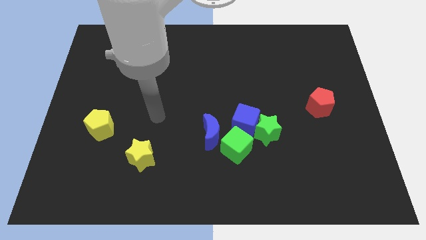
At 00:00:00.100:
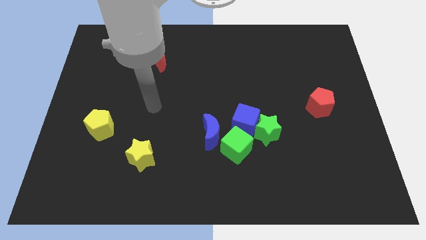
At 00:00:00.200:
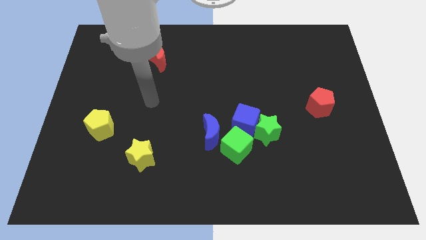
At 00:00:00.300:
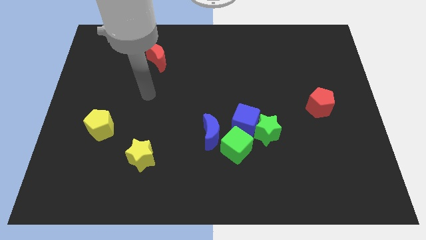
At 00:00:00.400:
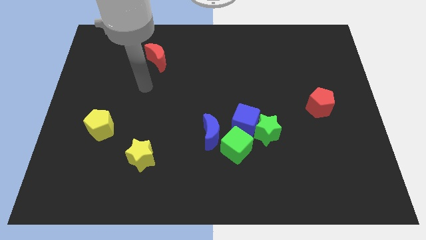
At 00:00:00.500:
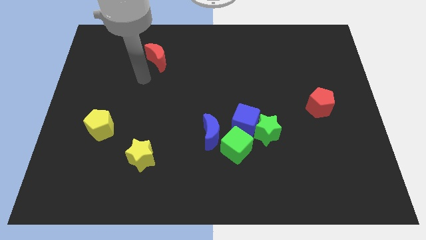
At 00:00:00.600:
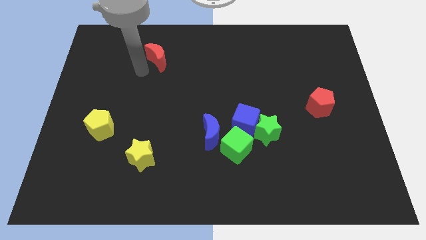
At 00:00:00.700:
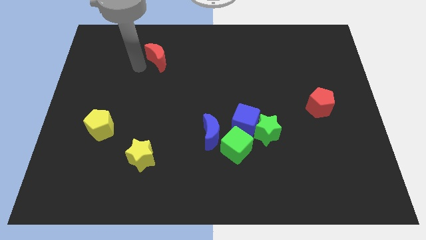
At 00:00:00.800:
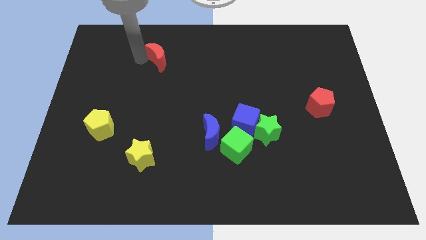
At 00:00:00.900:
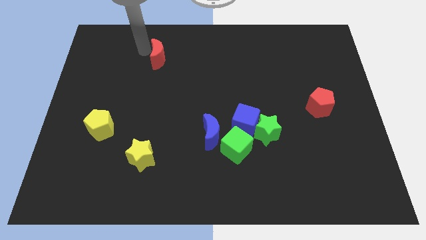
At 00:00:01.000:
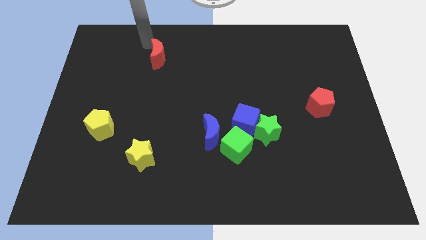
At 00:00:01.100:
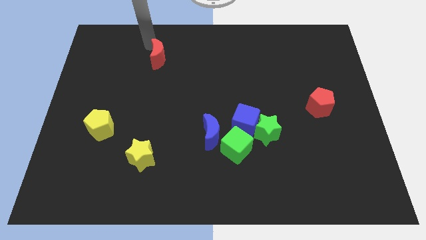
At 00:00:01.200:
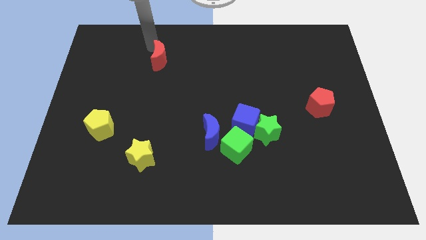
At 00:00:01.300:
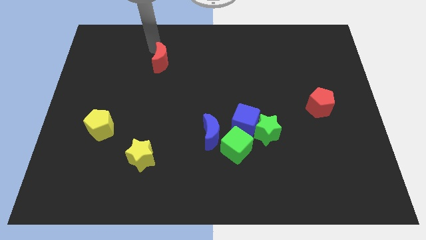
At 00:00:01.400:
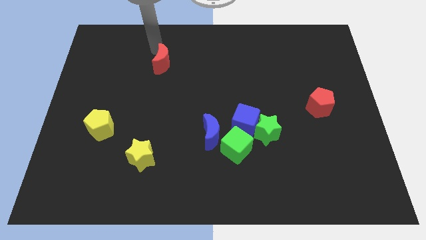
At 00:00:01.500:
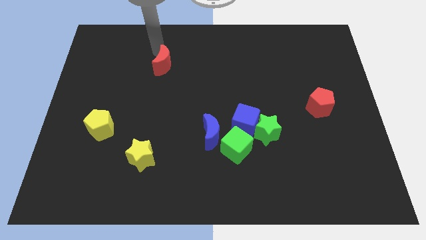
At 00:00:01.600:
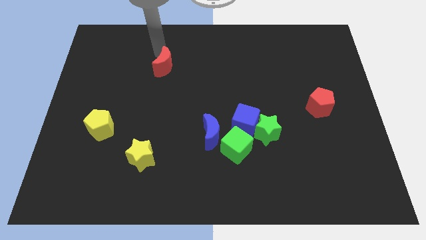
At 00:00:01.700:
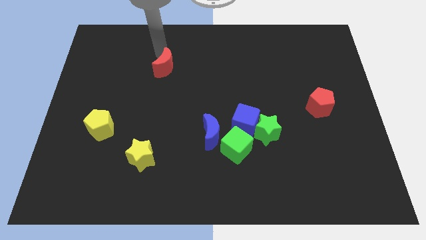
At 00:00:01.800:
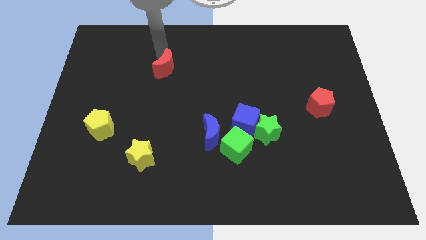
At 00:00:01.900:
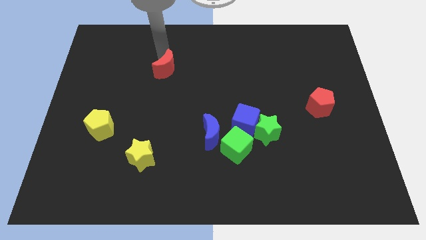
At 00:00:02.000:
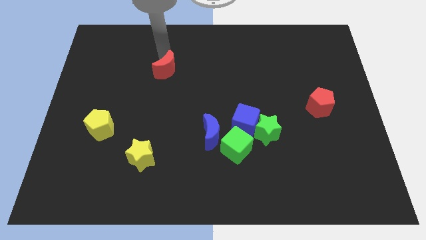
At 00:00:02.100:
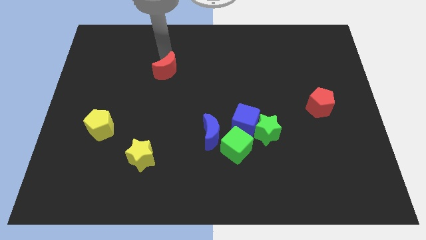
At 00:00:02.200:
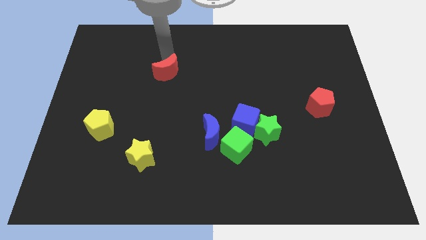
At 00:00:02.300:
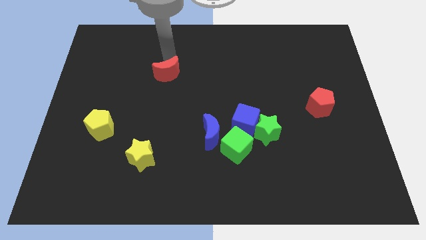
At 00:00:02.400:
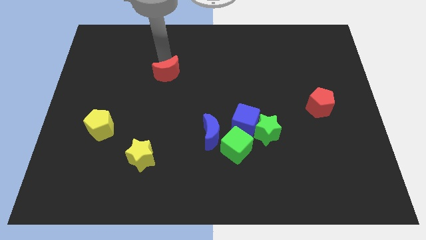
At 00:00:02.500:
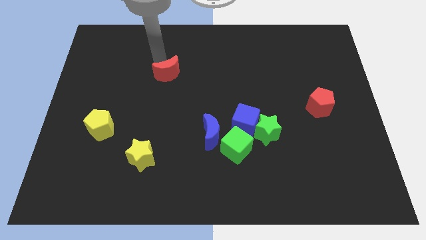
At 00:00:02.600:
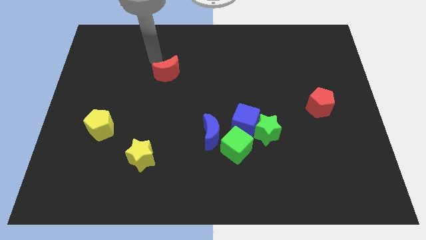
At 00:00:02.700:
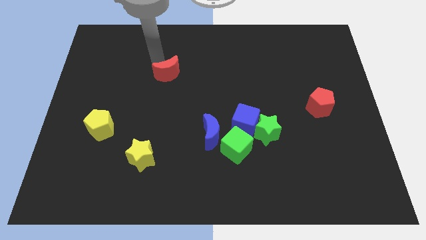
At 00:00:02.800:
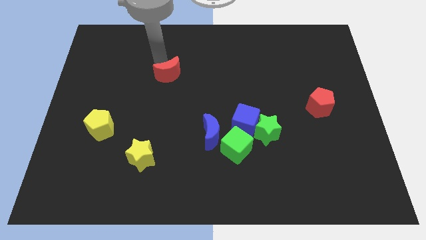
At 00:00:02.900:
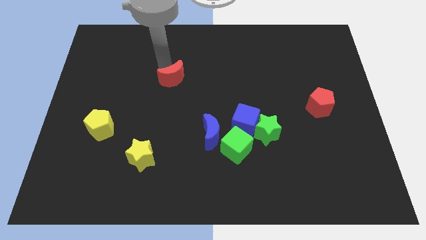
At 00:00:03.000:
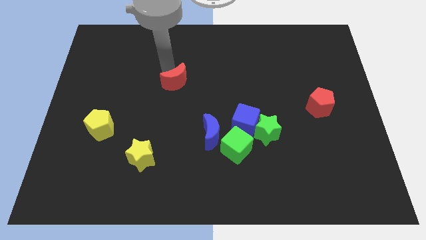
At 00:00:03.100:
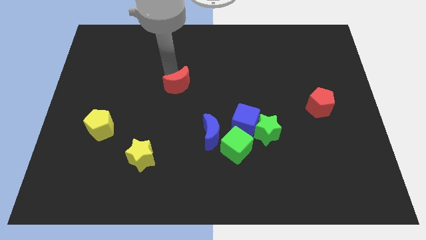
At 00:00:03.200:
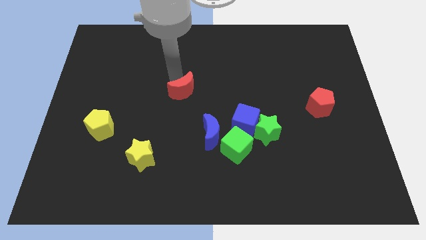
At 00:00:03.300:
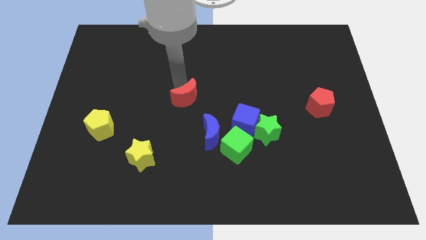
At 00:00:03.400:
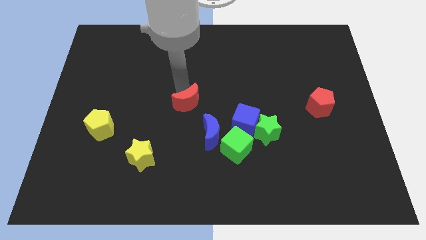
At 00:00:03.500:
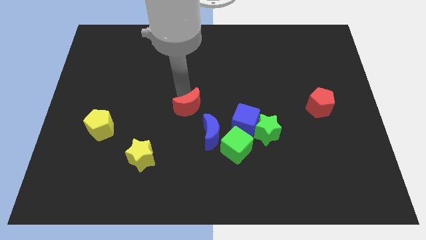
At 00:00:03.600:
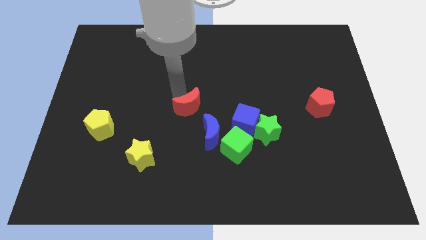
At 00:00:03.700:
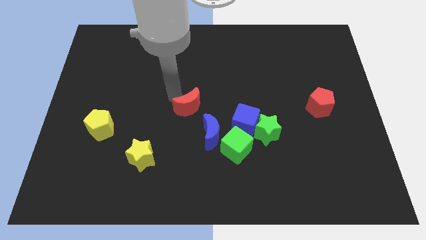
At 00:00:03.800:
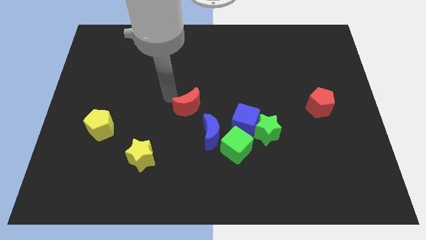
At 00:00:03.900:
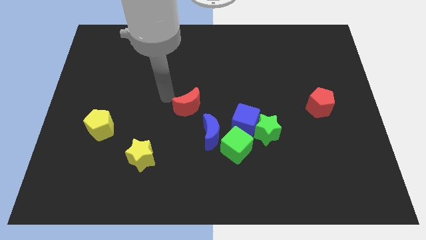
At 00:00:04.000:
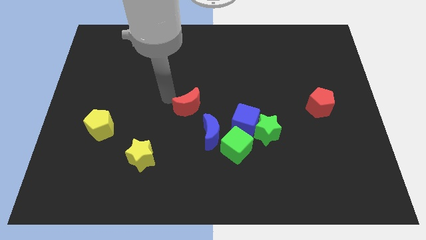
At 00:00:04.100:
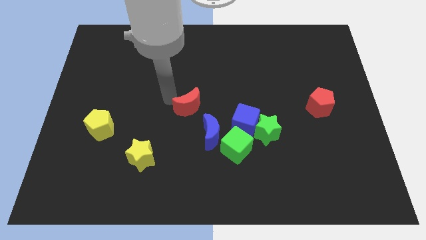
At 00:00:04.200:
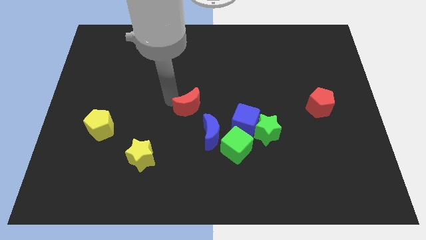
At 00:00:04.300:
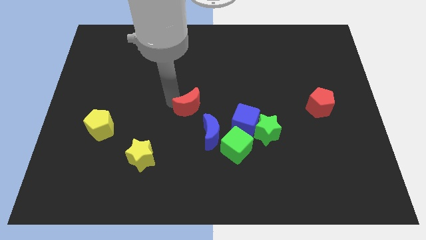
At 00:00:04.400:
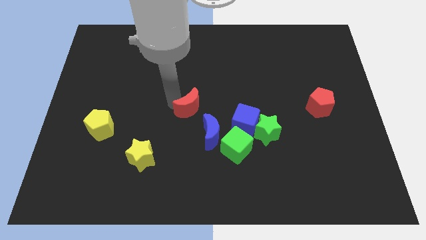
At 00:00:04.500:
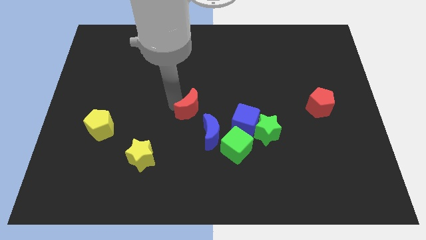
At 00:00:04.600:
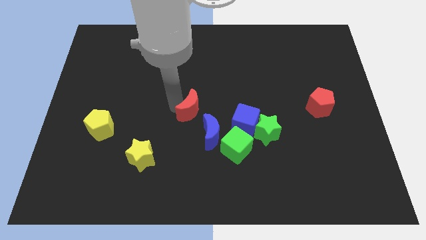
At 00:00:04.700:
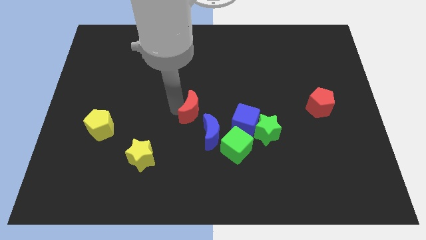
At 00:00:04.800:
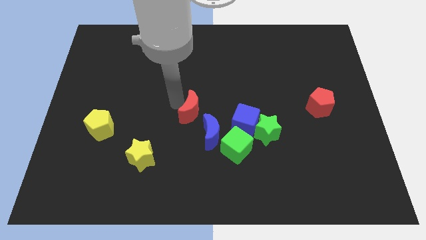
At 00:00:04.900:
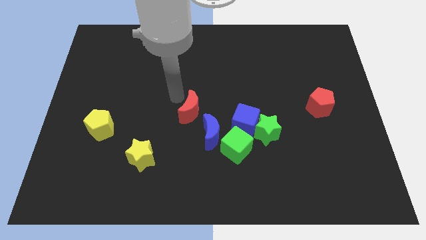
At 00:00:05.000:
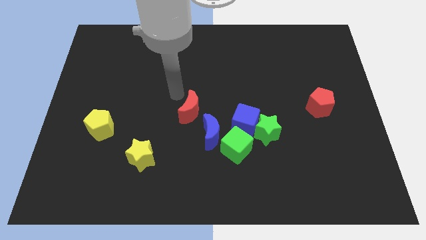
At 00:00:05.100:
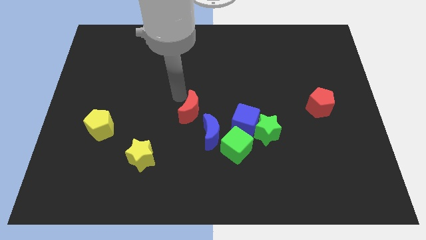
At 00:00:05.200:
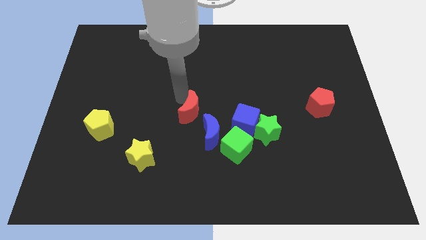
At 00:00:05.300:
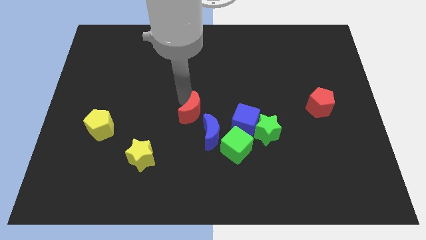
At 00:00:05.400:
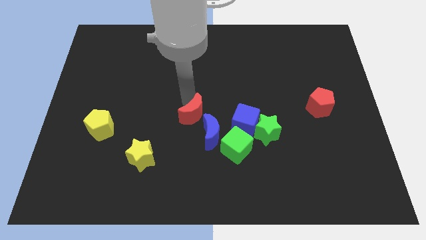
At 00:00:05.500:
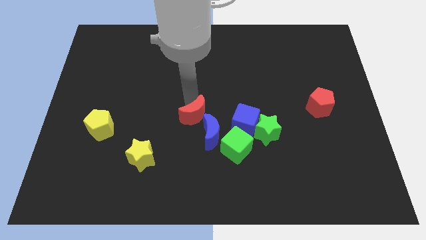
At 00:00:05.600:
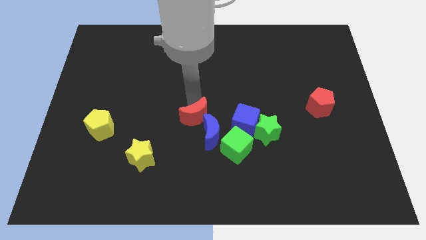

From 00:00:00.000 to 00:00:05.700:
push the red moon towards the blue moon

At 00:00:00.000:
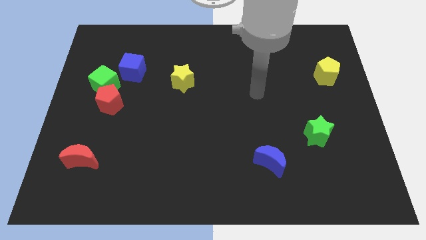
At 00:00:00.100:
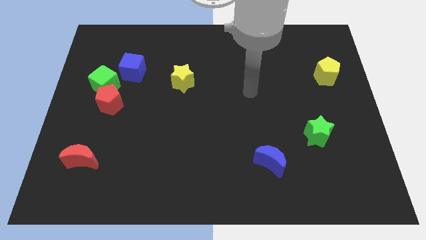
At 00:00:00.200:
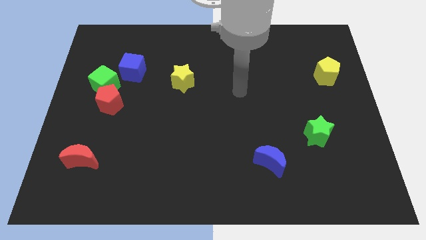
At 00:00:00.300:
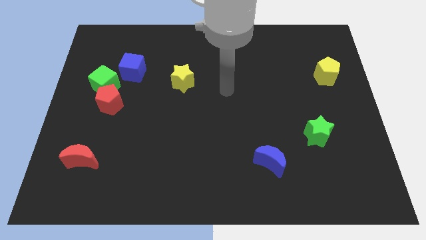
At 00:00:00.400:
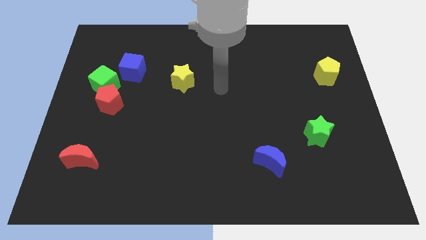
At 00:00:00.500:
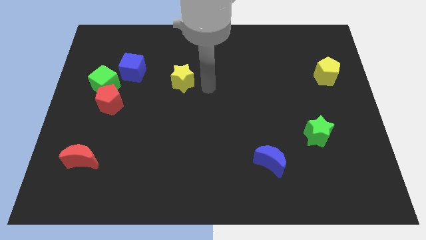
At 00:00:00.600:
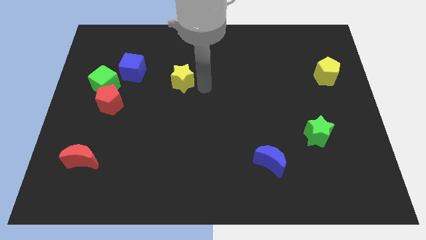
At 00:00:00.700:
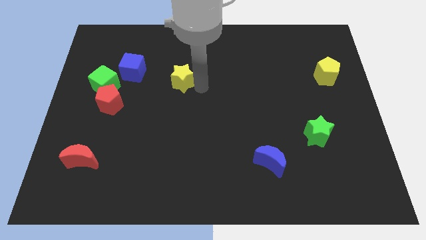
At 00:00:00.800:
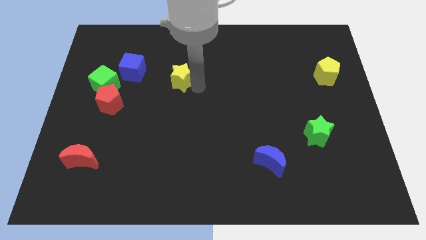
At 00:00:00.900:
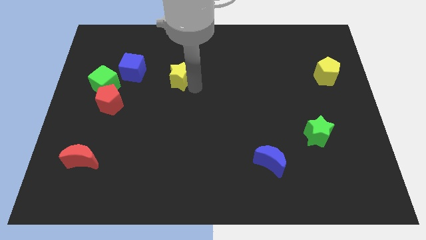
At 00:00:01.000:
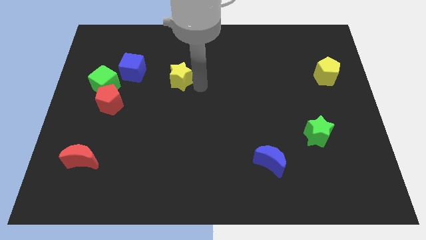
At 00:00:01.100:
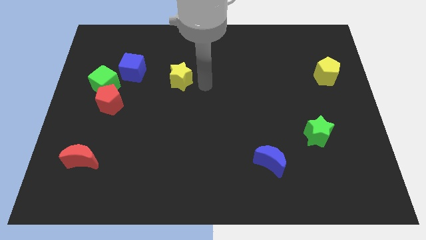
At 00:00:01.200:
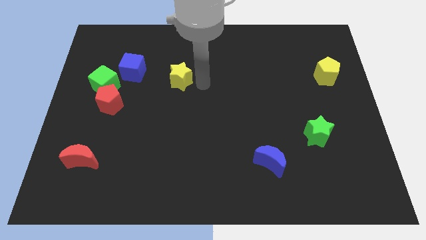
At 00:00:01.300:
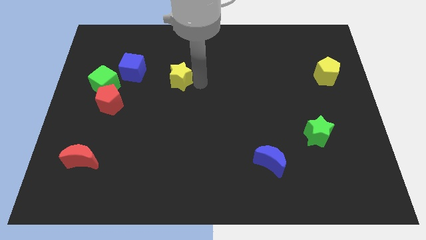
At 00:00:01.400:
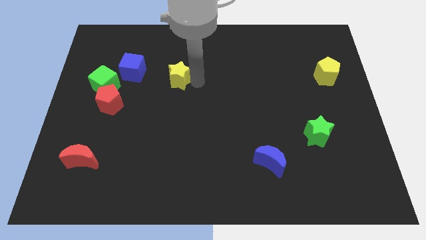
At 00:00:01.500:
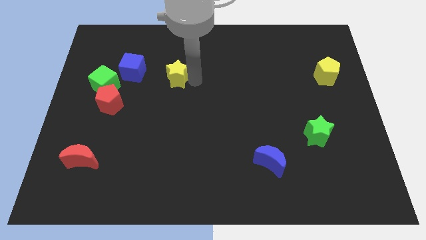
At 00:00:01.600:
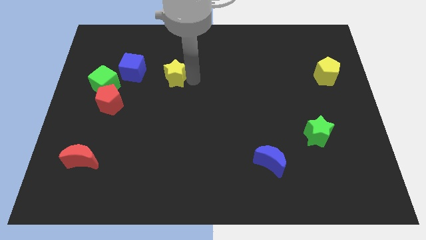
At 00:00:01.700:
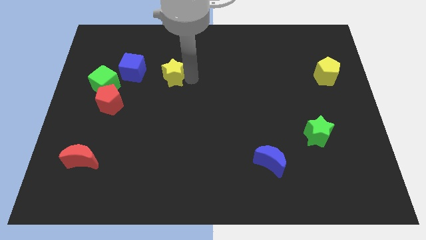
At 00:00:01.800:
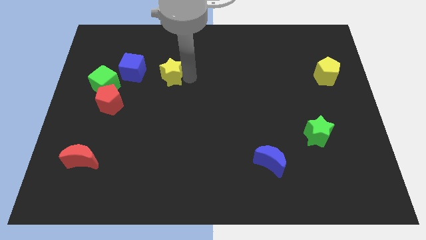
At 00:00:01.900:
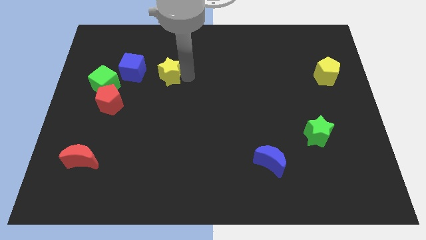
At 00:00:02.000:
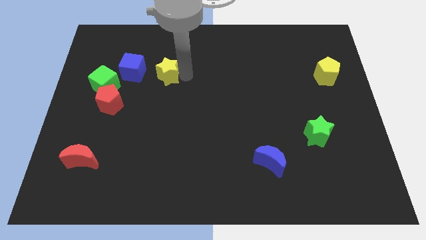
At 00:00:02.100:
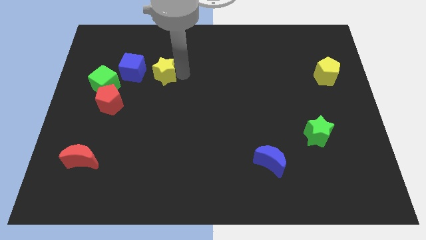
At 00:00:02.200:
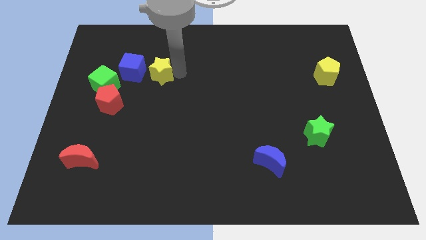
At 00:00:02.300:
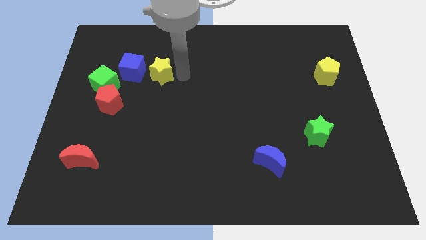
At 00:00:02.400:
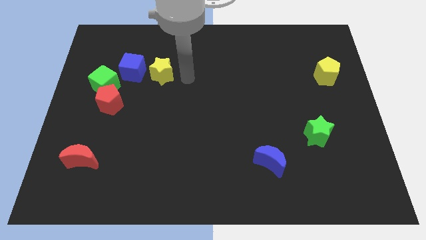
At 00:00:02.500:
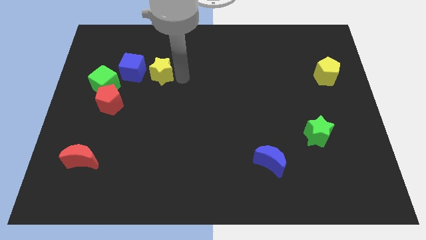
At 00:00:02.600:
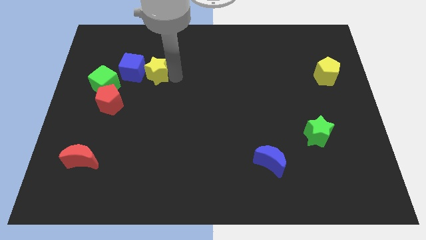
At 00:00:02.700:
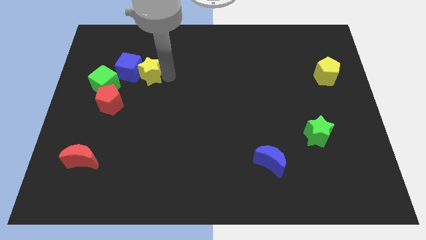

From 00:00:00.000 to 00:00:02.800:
slide the yellow star to the blue cube
